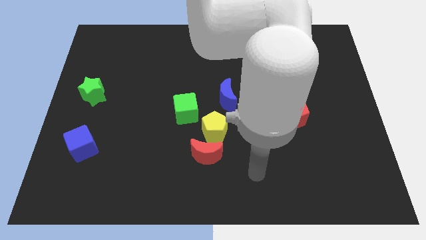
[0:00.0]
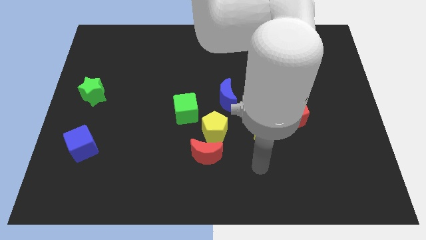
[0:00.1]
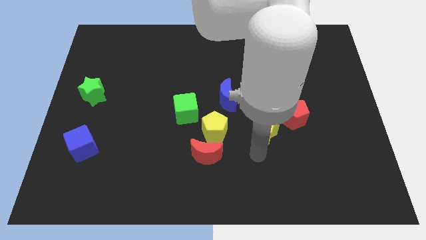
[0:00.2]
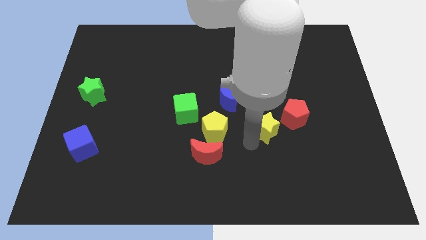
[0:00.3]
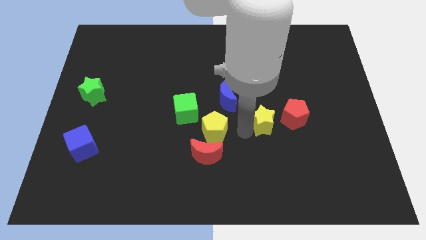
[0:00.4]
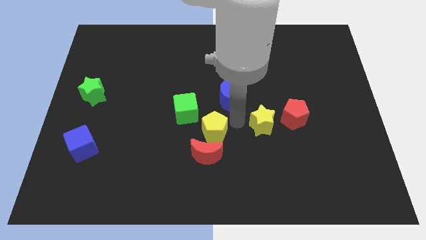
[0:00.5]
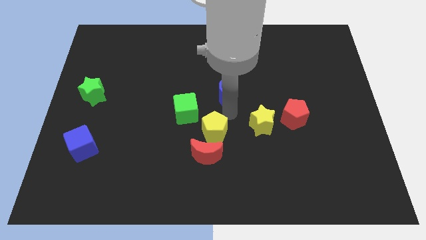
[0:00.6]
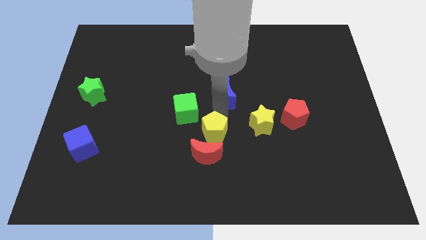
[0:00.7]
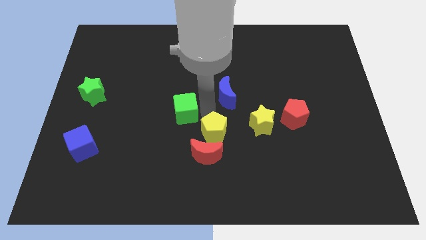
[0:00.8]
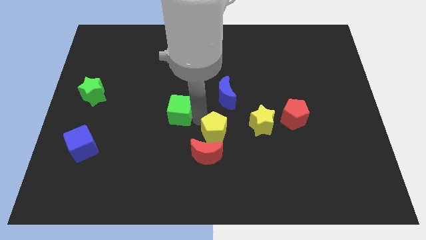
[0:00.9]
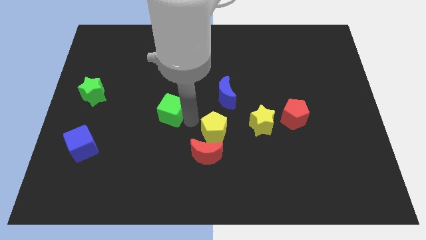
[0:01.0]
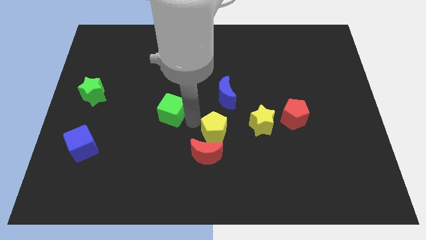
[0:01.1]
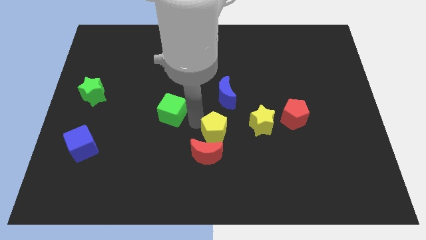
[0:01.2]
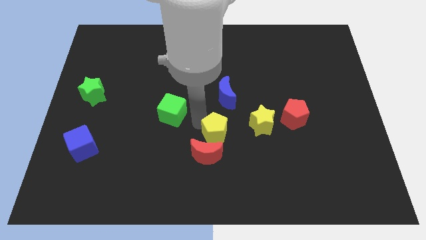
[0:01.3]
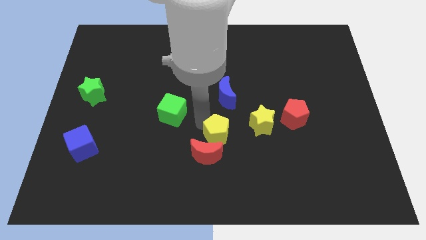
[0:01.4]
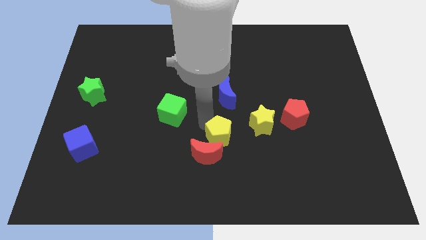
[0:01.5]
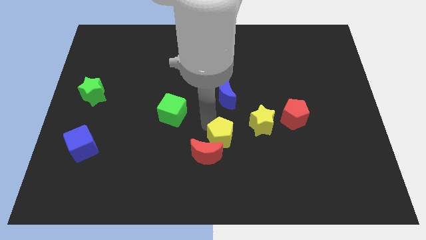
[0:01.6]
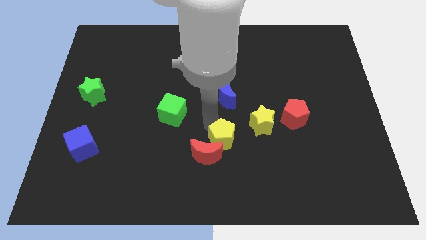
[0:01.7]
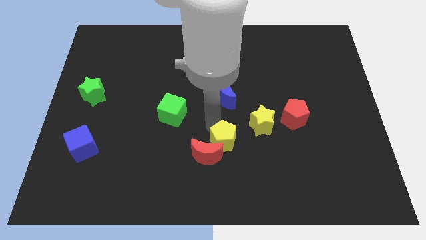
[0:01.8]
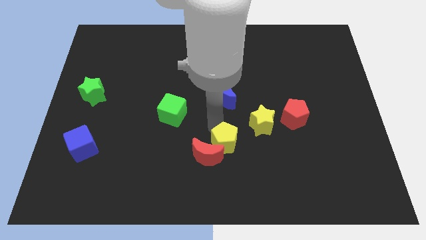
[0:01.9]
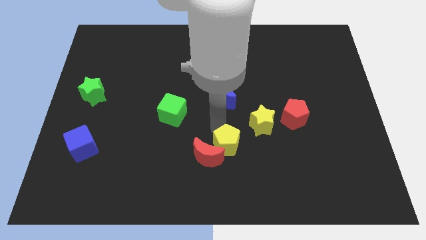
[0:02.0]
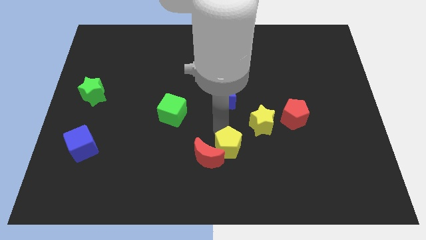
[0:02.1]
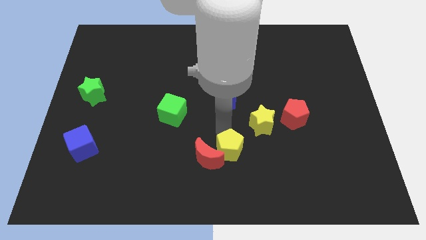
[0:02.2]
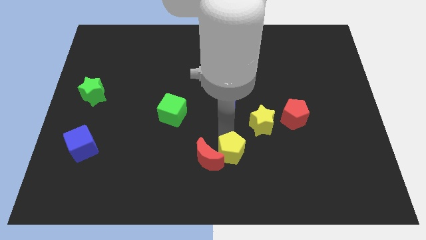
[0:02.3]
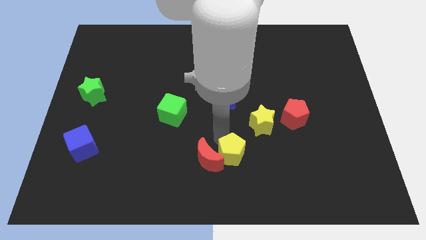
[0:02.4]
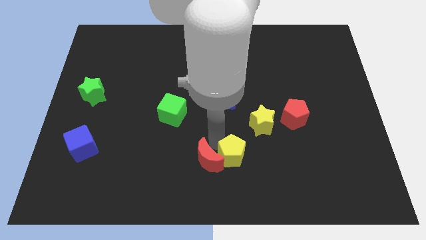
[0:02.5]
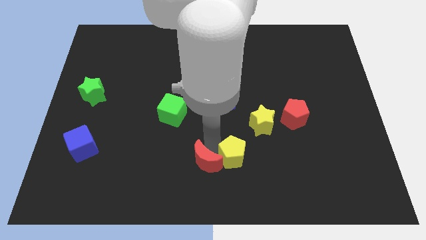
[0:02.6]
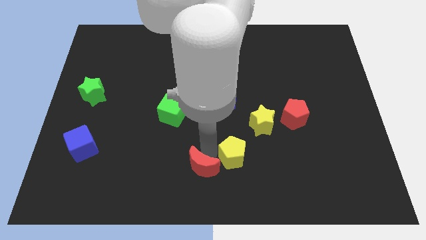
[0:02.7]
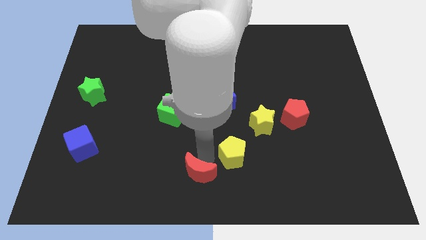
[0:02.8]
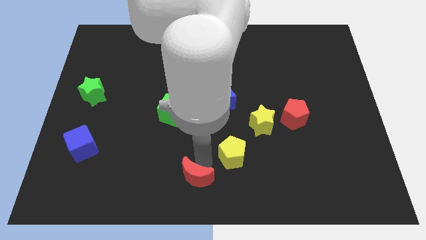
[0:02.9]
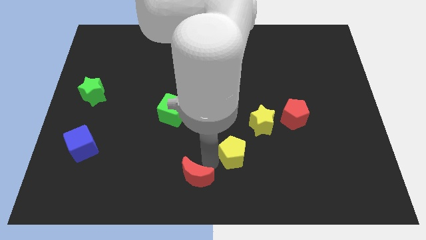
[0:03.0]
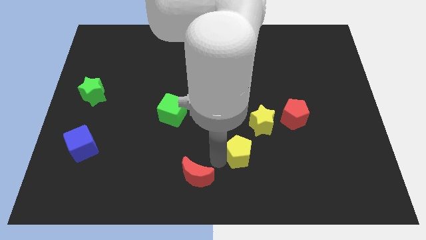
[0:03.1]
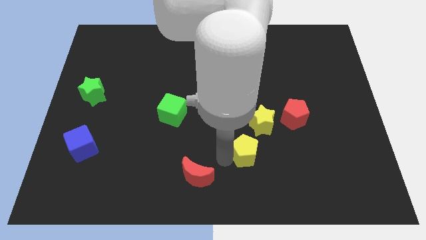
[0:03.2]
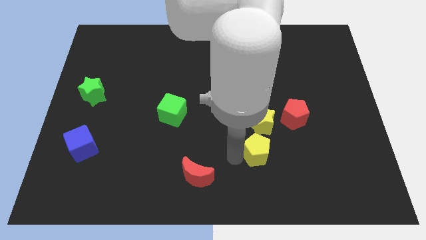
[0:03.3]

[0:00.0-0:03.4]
move the yellow pentagon right a bit

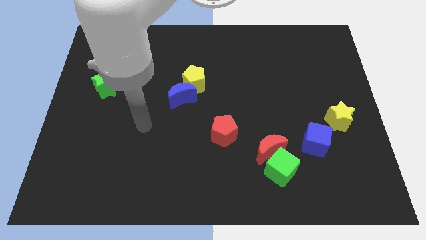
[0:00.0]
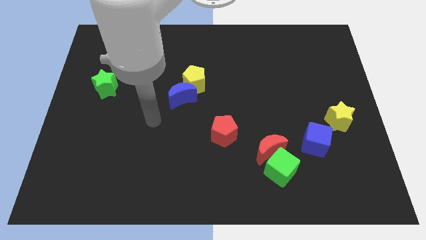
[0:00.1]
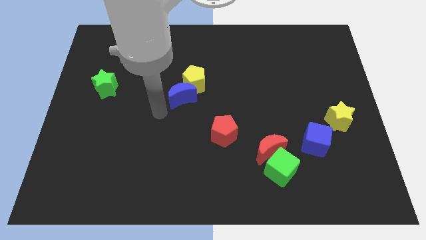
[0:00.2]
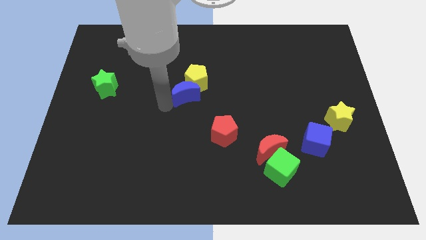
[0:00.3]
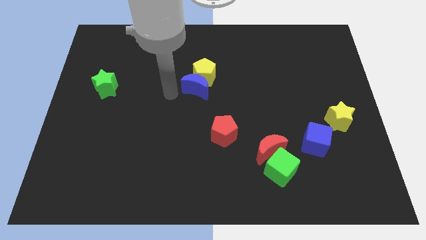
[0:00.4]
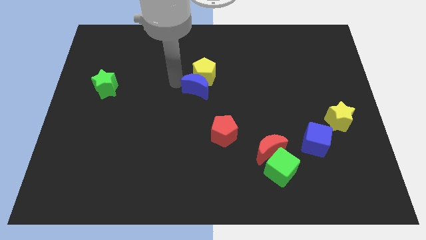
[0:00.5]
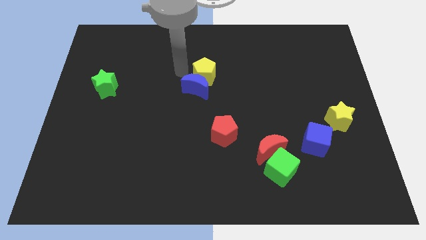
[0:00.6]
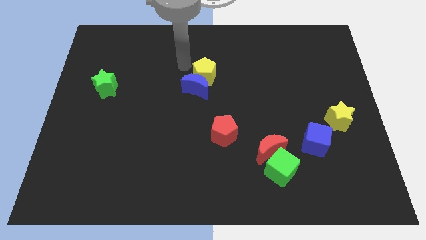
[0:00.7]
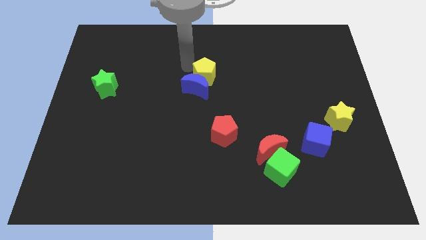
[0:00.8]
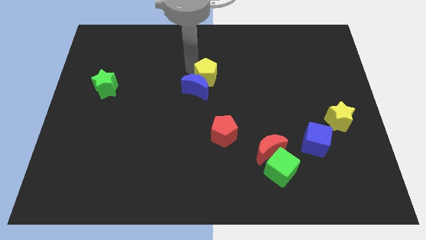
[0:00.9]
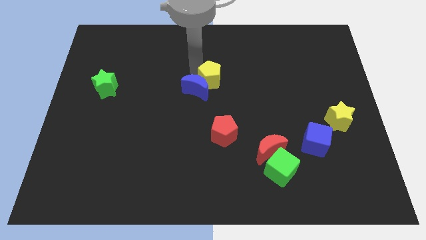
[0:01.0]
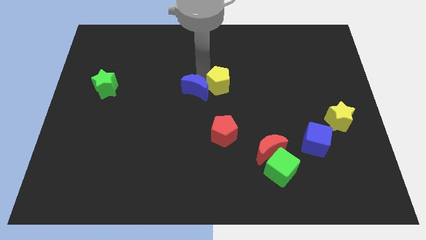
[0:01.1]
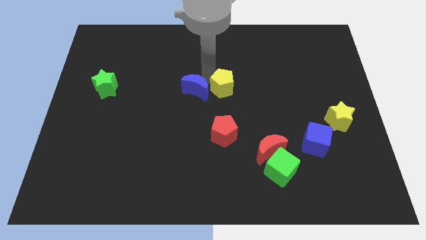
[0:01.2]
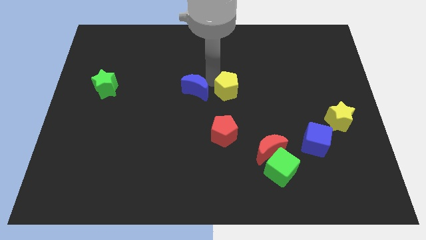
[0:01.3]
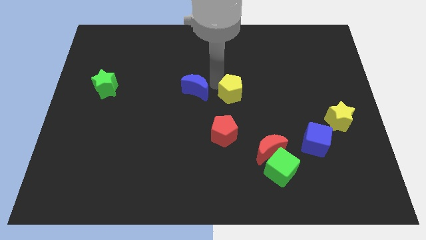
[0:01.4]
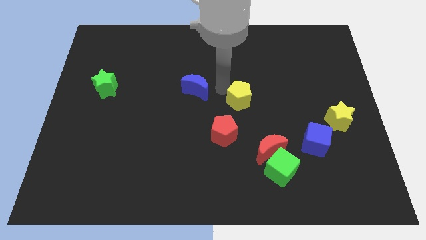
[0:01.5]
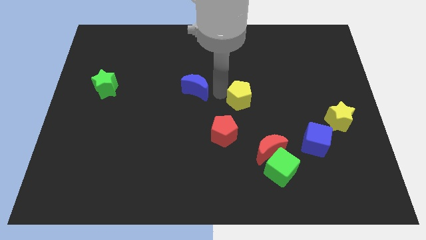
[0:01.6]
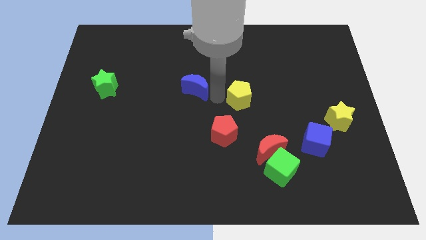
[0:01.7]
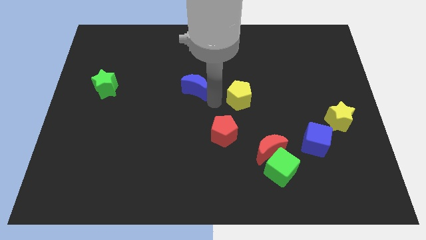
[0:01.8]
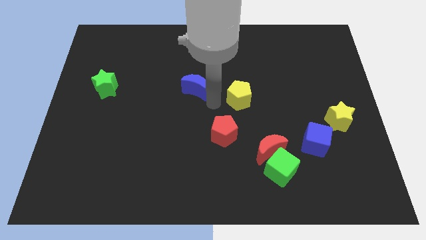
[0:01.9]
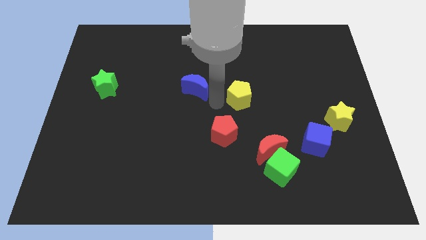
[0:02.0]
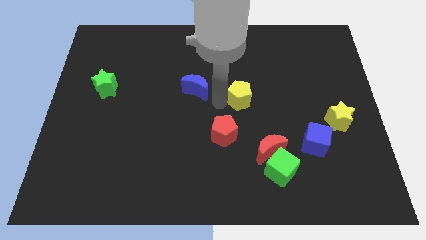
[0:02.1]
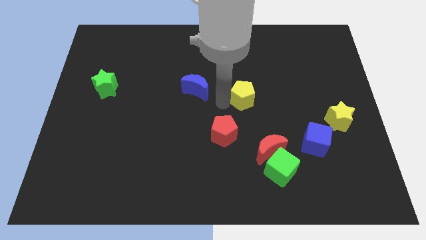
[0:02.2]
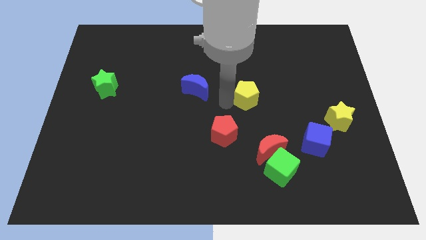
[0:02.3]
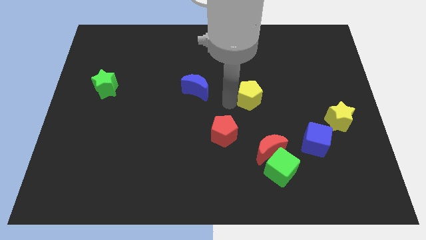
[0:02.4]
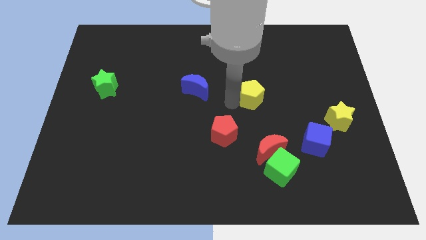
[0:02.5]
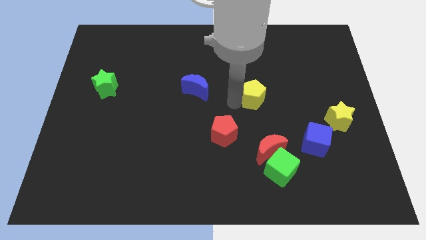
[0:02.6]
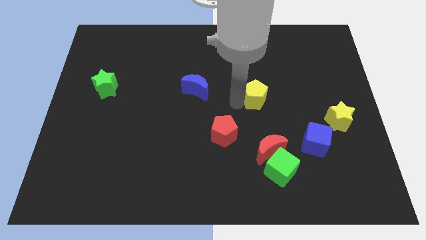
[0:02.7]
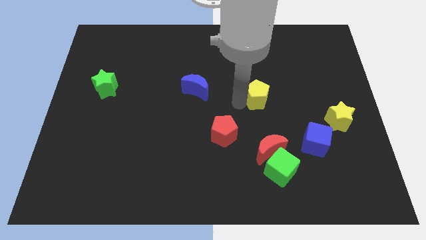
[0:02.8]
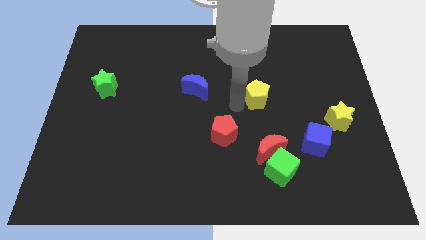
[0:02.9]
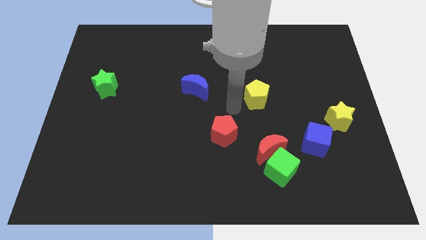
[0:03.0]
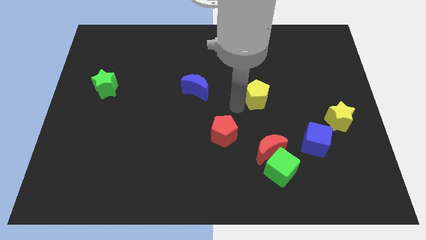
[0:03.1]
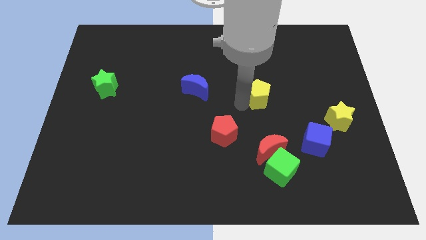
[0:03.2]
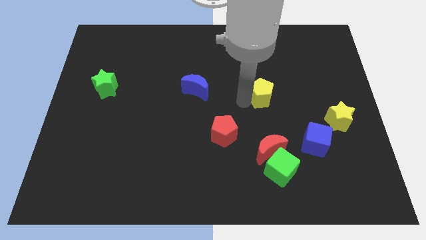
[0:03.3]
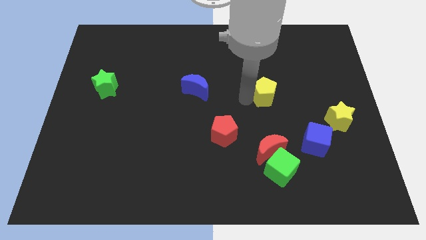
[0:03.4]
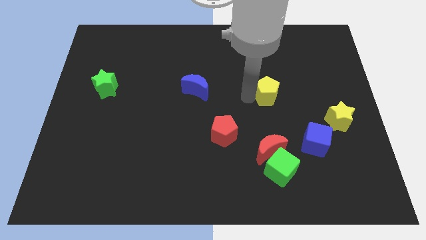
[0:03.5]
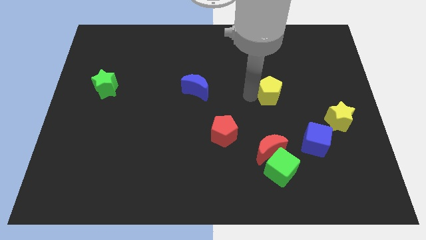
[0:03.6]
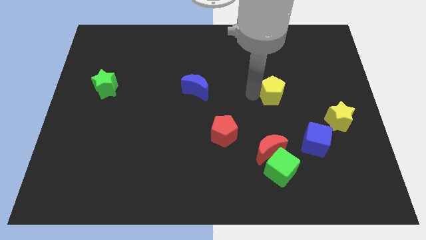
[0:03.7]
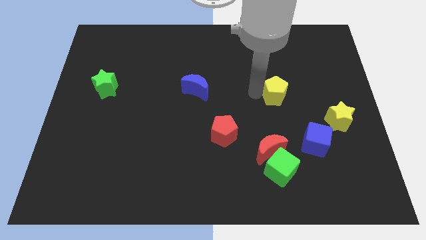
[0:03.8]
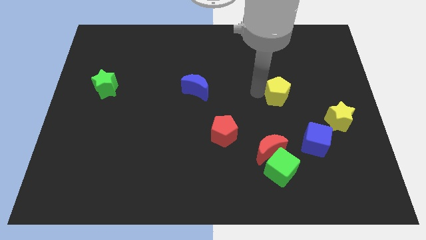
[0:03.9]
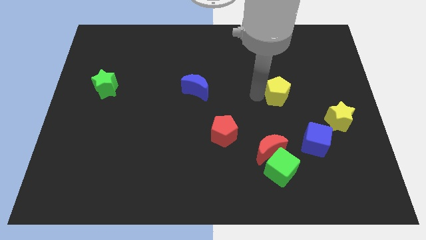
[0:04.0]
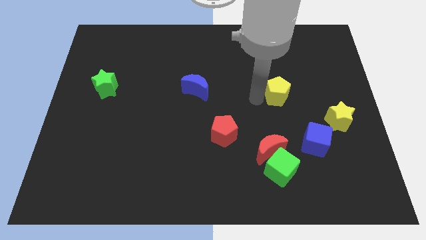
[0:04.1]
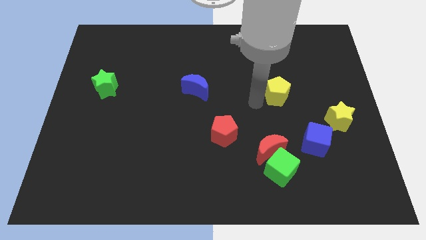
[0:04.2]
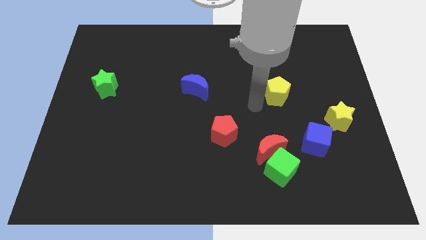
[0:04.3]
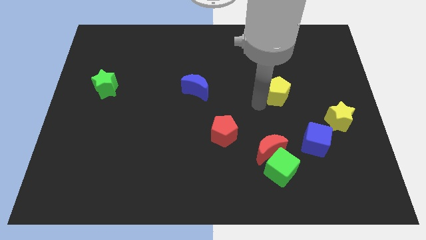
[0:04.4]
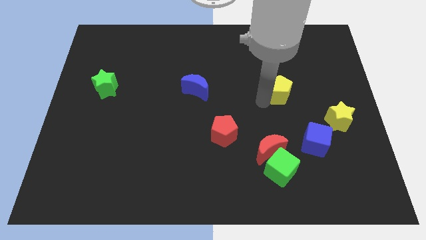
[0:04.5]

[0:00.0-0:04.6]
move the yellow pentagon to the right
